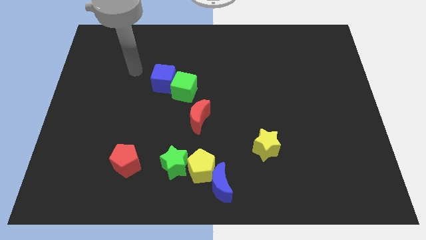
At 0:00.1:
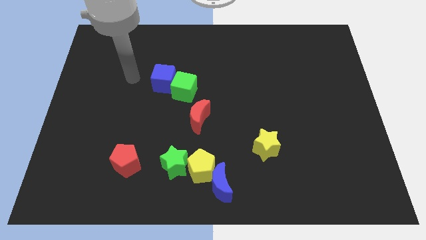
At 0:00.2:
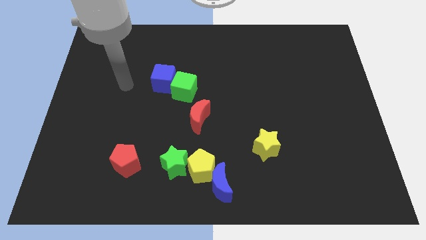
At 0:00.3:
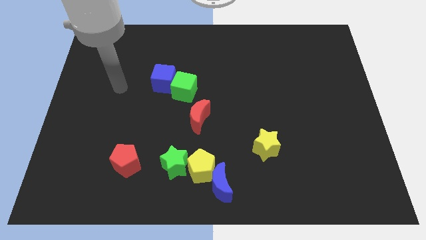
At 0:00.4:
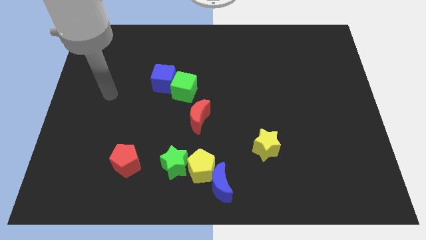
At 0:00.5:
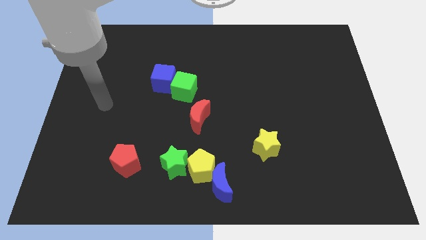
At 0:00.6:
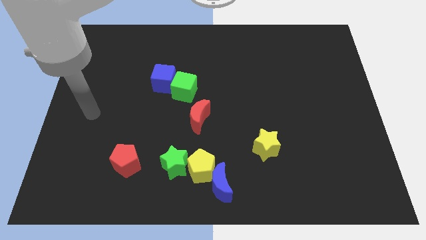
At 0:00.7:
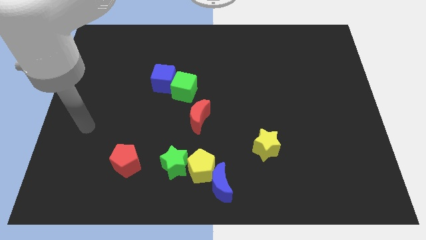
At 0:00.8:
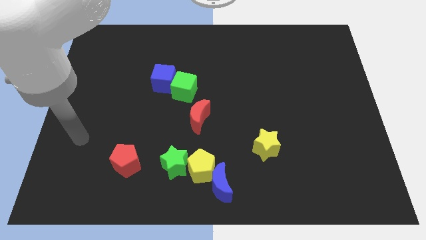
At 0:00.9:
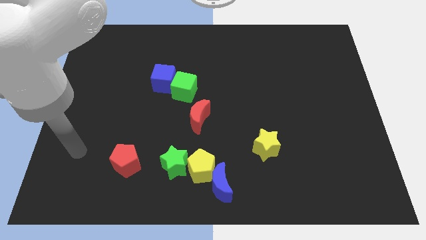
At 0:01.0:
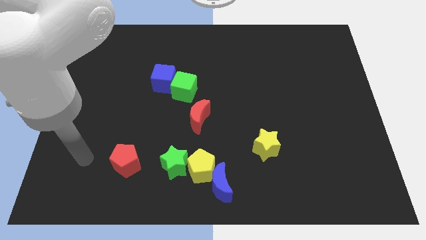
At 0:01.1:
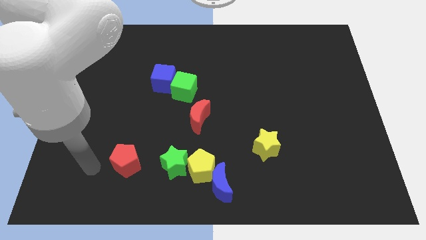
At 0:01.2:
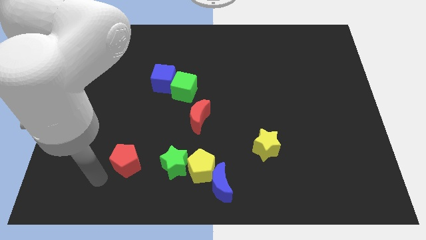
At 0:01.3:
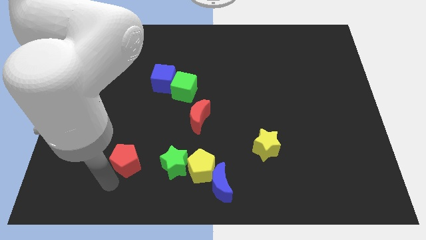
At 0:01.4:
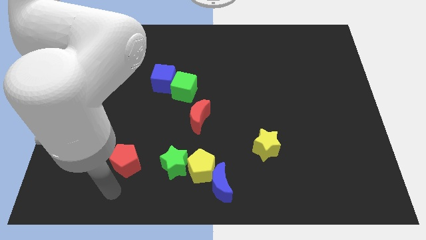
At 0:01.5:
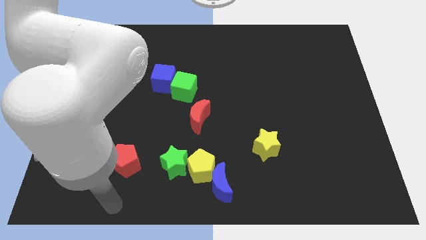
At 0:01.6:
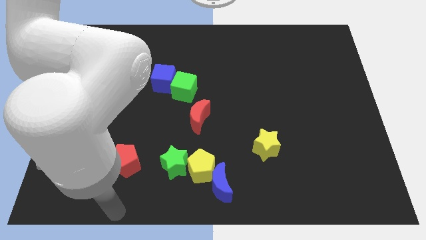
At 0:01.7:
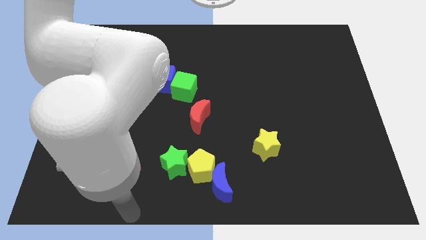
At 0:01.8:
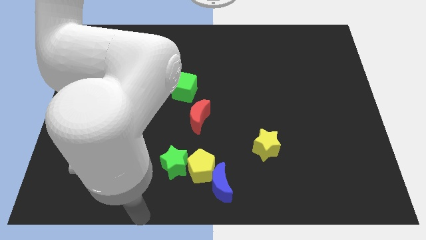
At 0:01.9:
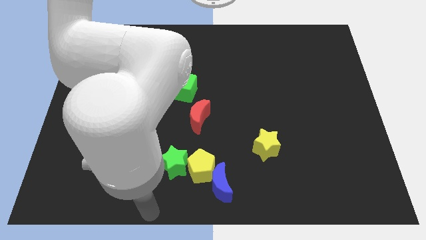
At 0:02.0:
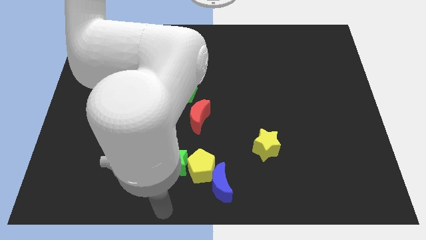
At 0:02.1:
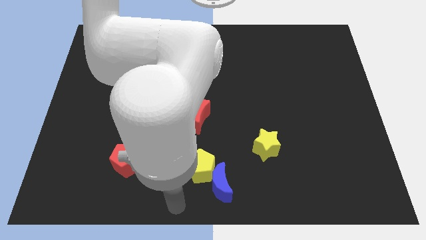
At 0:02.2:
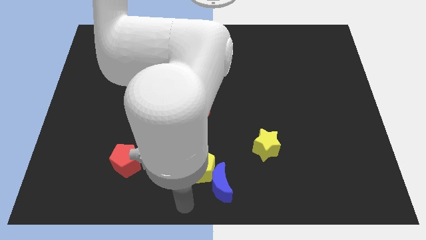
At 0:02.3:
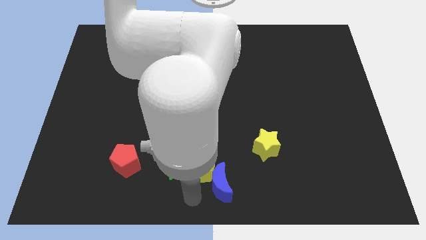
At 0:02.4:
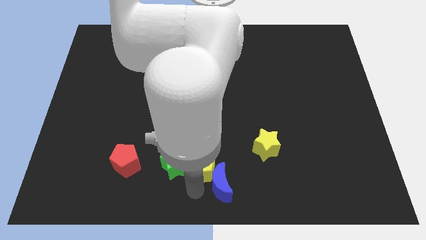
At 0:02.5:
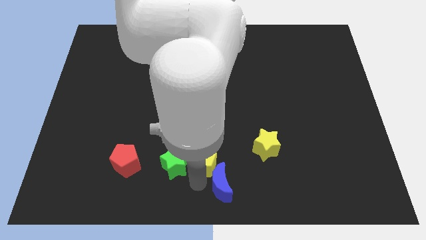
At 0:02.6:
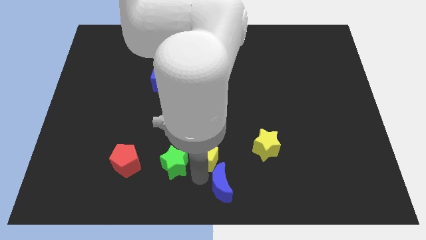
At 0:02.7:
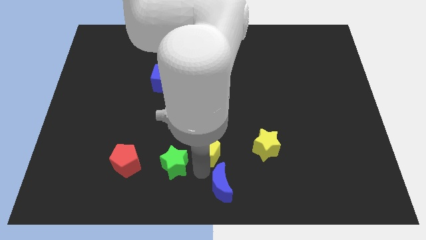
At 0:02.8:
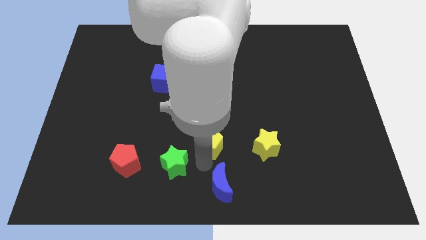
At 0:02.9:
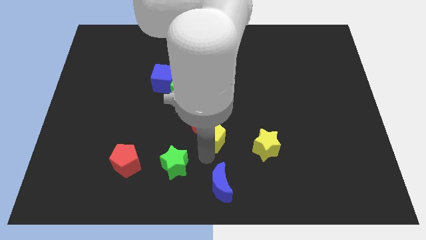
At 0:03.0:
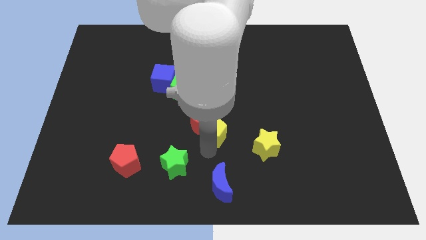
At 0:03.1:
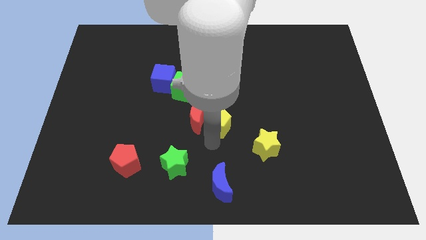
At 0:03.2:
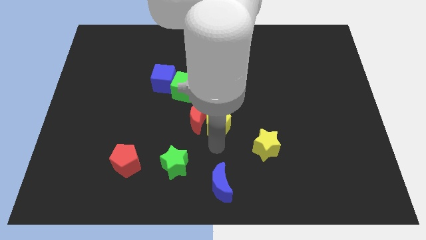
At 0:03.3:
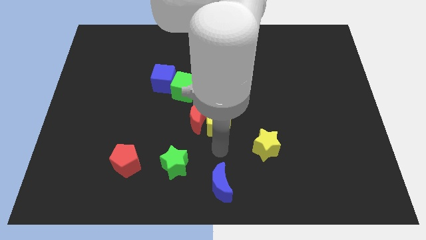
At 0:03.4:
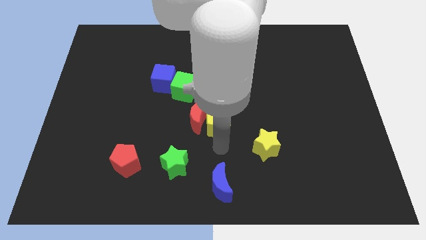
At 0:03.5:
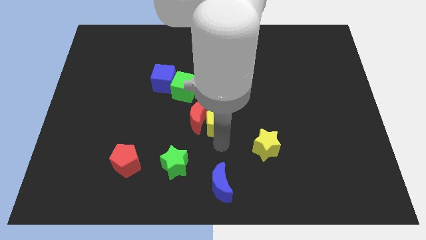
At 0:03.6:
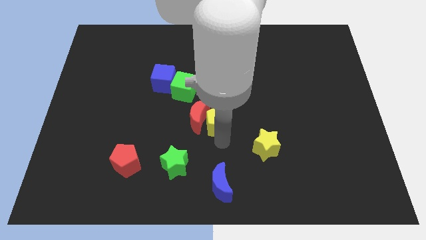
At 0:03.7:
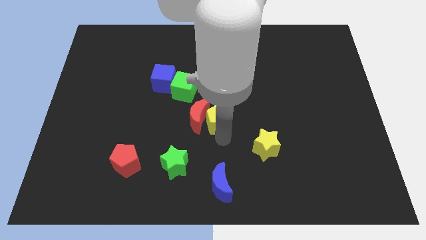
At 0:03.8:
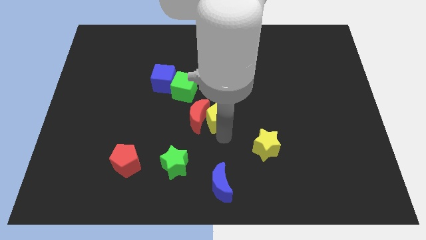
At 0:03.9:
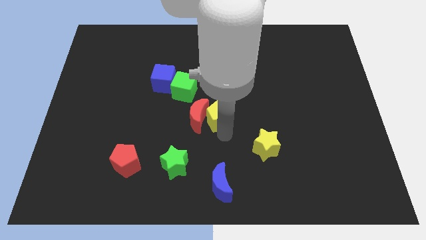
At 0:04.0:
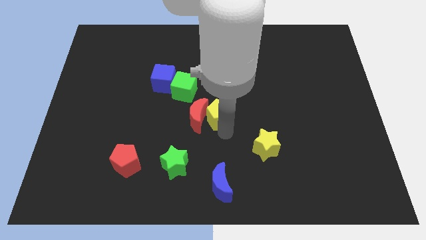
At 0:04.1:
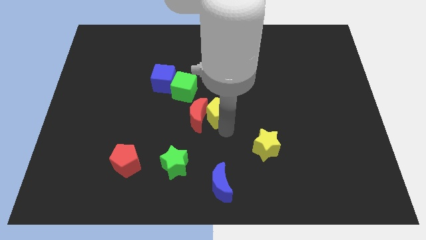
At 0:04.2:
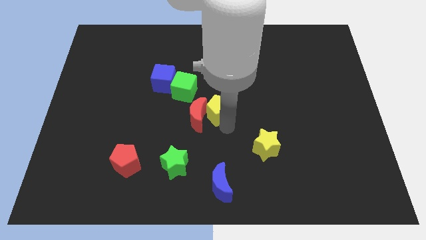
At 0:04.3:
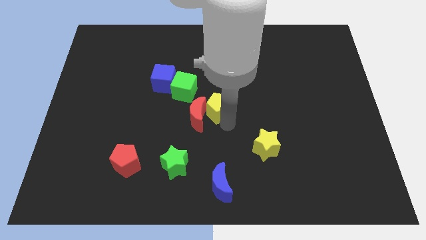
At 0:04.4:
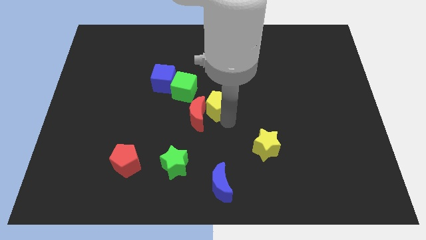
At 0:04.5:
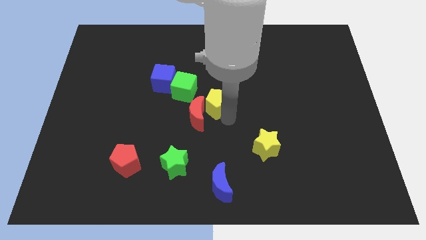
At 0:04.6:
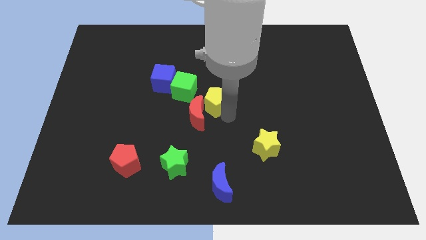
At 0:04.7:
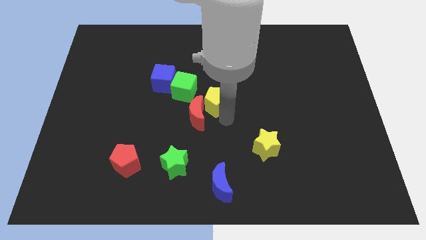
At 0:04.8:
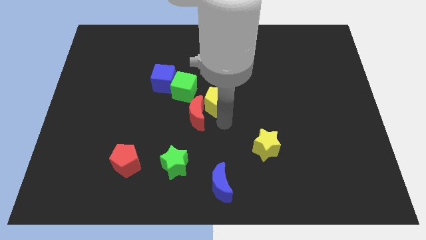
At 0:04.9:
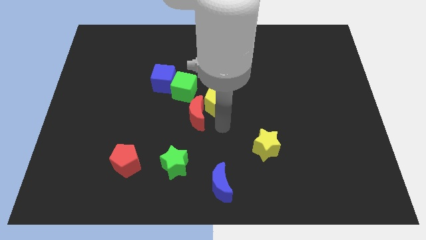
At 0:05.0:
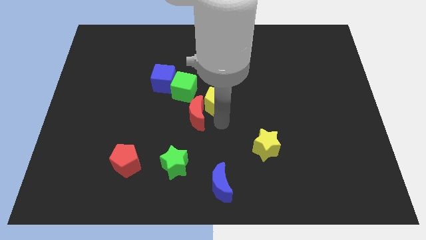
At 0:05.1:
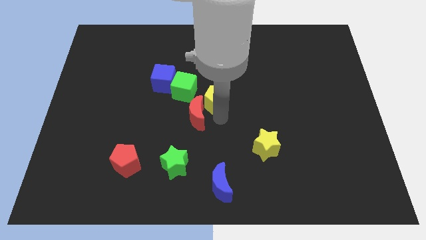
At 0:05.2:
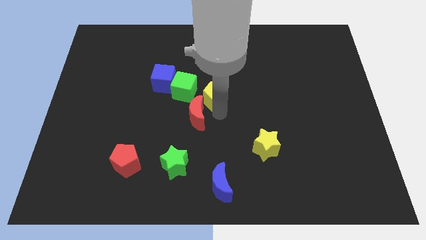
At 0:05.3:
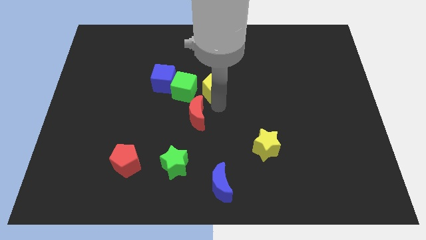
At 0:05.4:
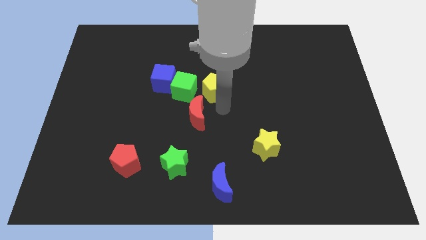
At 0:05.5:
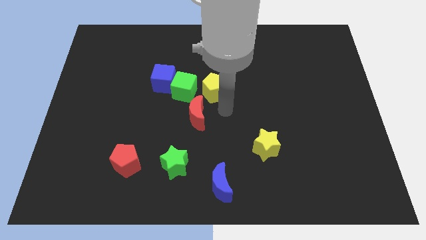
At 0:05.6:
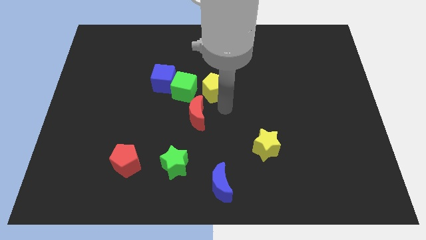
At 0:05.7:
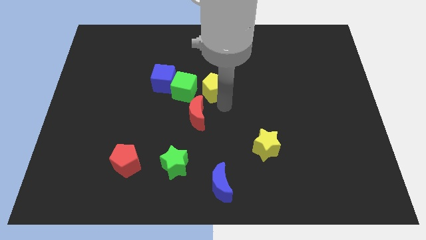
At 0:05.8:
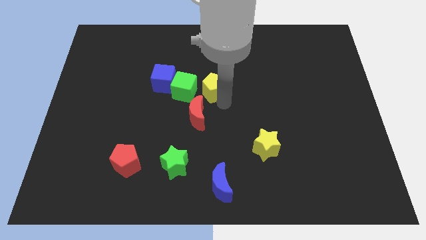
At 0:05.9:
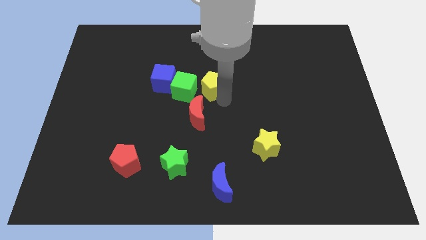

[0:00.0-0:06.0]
put the yellow pentagon to the top right side of the green cube
